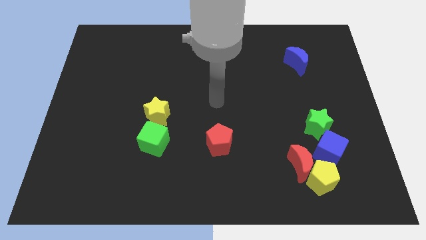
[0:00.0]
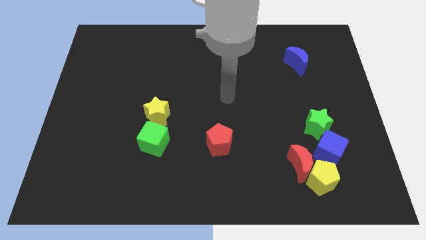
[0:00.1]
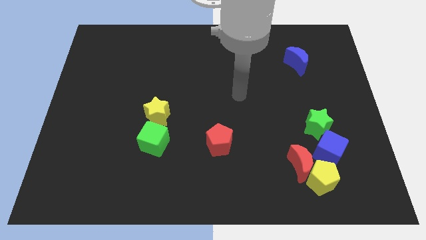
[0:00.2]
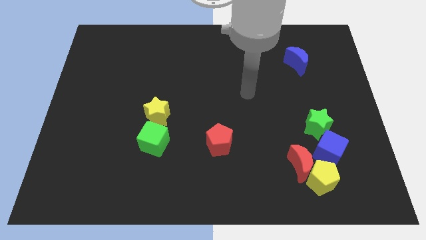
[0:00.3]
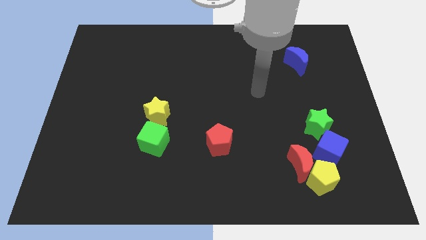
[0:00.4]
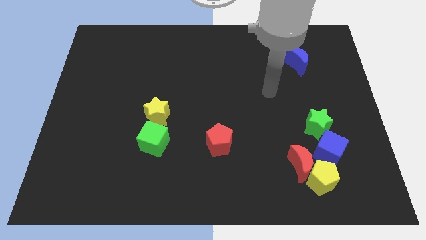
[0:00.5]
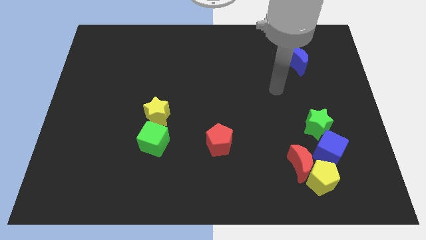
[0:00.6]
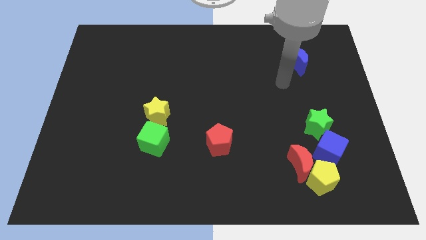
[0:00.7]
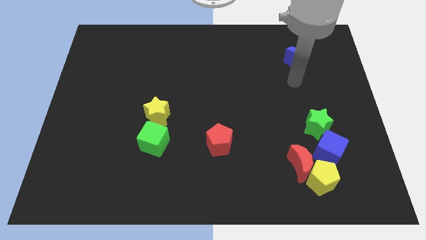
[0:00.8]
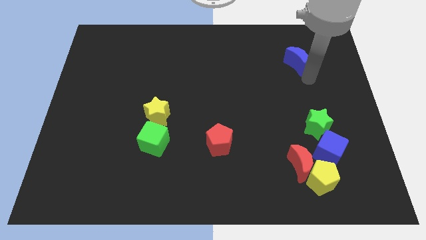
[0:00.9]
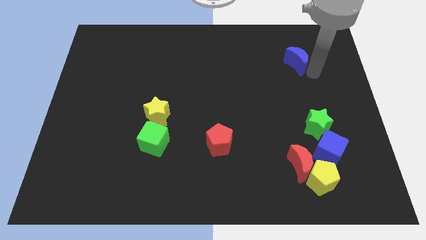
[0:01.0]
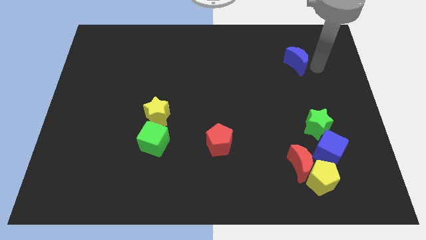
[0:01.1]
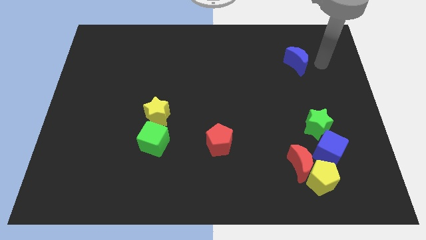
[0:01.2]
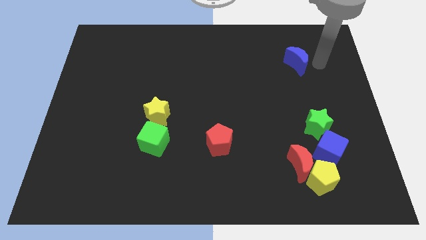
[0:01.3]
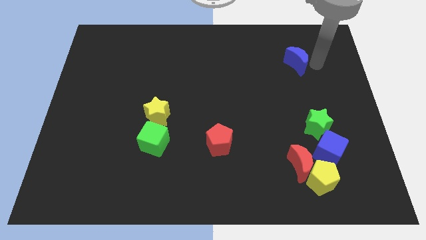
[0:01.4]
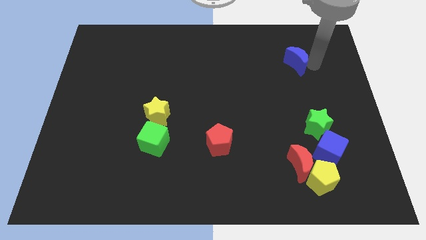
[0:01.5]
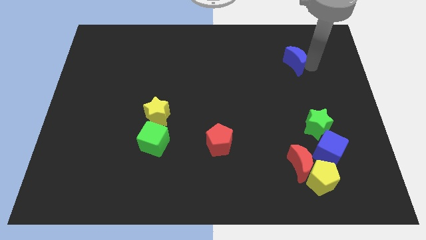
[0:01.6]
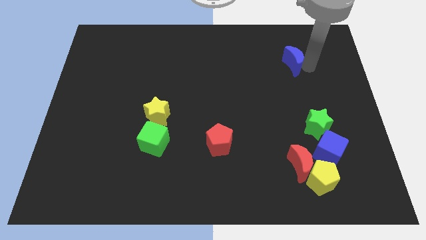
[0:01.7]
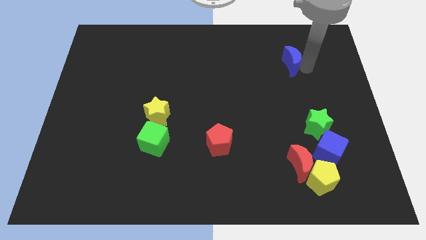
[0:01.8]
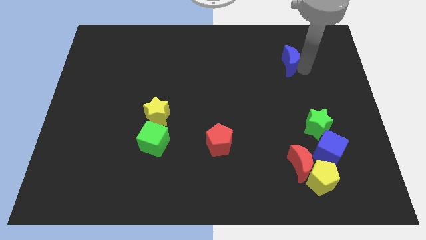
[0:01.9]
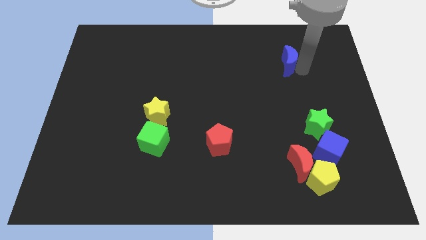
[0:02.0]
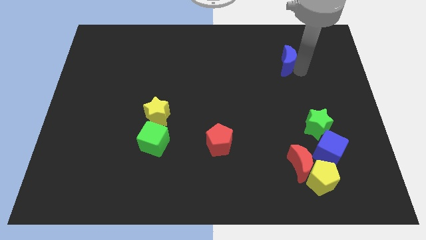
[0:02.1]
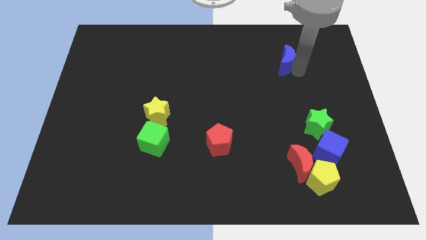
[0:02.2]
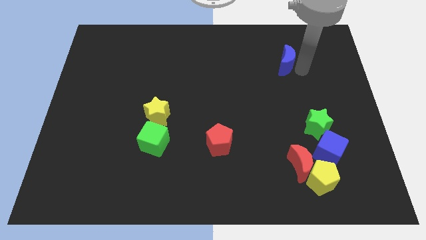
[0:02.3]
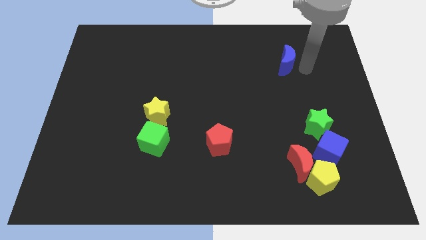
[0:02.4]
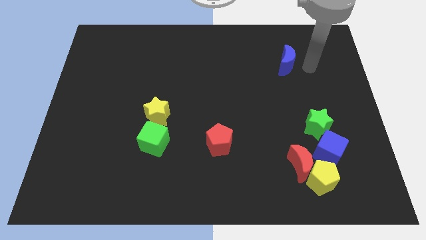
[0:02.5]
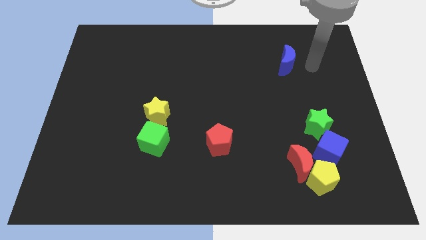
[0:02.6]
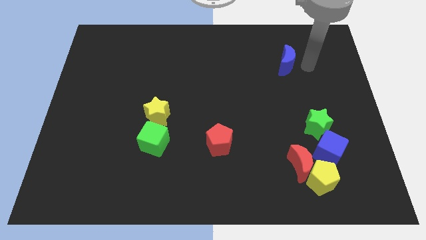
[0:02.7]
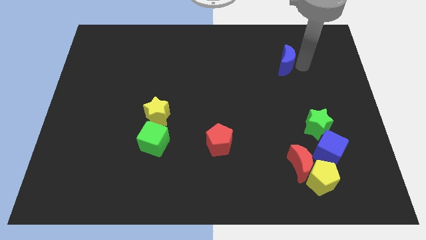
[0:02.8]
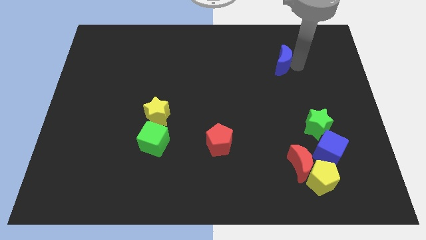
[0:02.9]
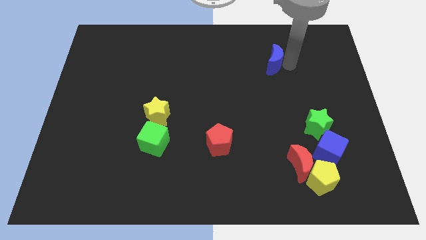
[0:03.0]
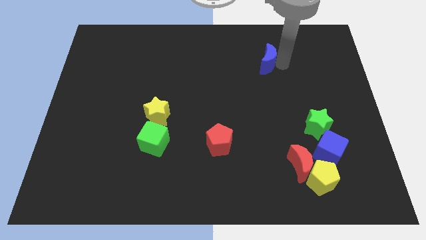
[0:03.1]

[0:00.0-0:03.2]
slightly move the blue moon to the left

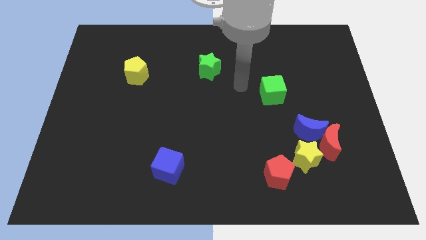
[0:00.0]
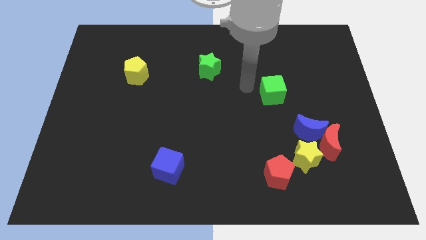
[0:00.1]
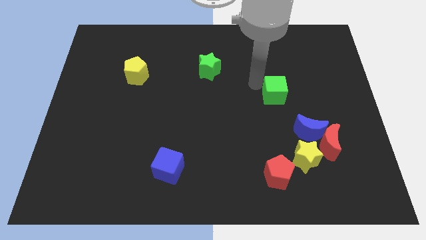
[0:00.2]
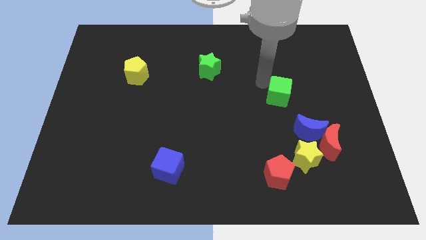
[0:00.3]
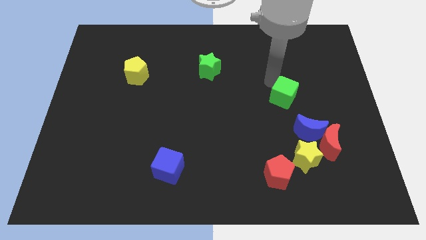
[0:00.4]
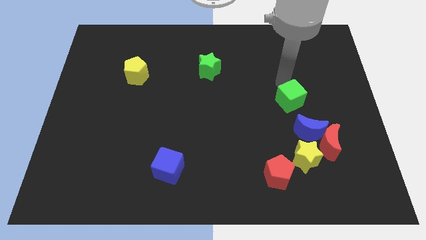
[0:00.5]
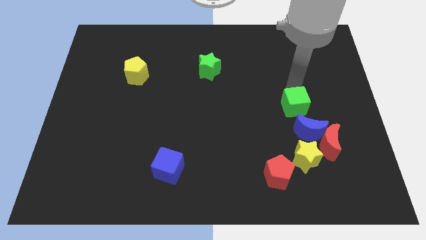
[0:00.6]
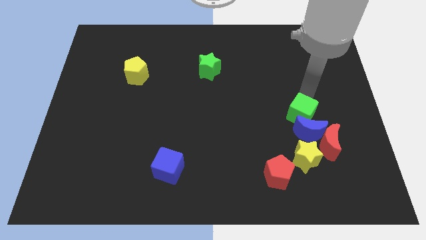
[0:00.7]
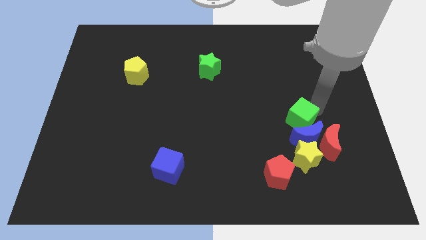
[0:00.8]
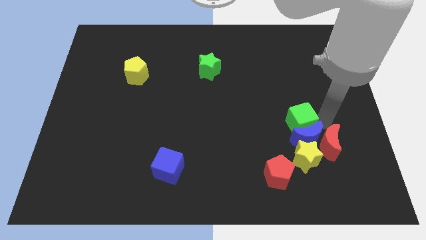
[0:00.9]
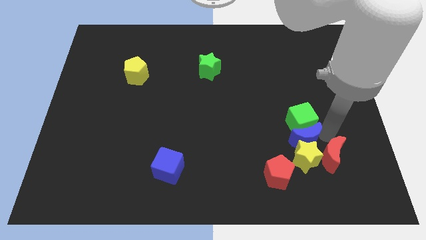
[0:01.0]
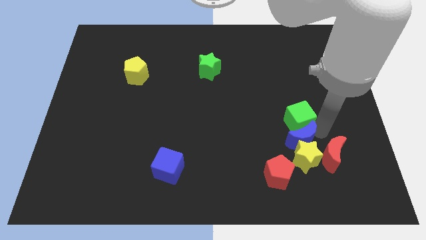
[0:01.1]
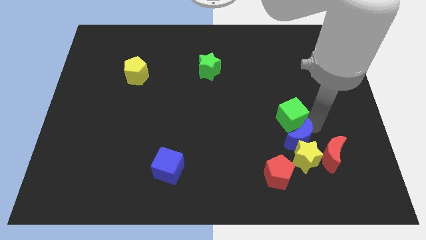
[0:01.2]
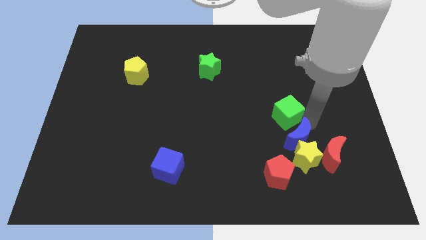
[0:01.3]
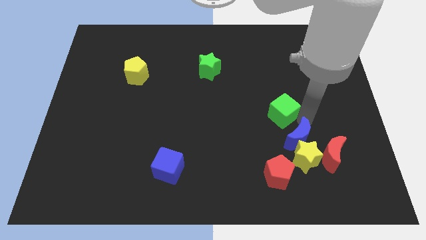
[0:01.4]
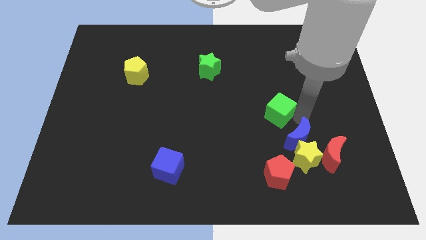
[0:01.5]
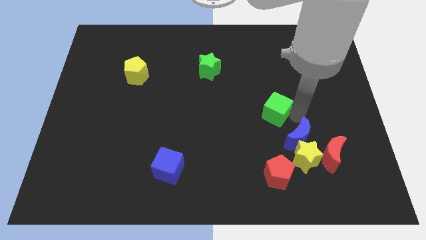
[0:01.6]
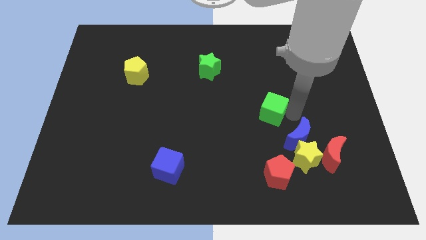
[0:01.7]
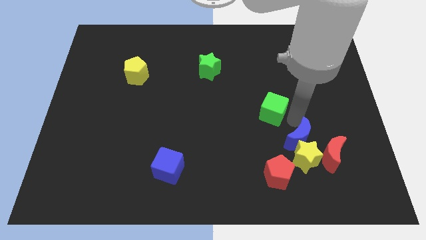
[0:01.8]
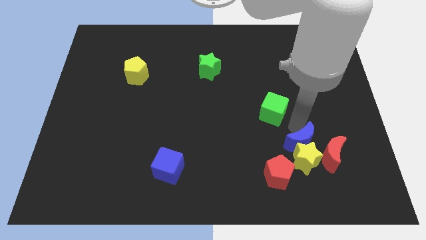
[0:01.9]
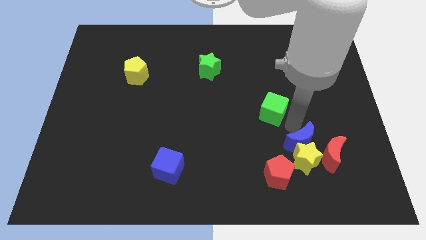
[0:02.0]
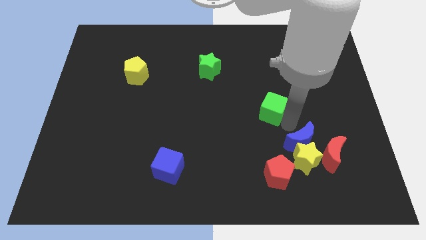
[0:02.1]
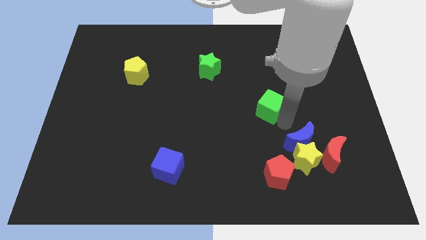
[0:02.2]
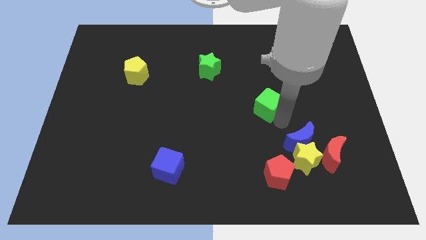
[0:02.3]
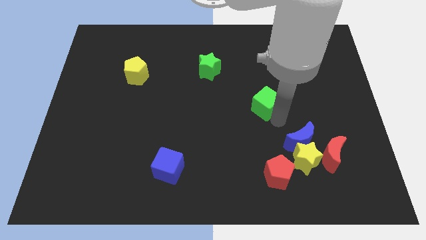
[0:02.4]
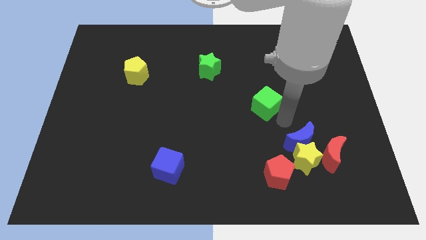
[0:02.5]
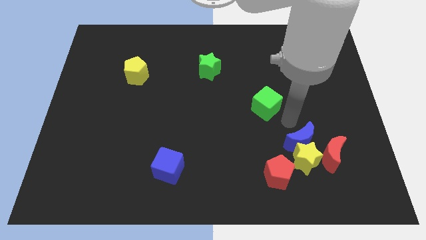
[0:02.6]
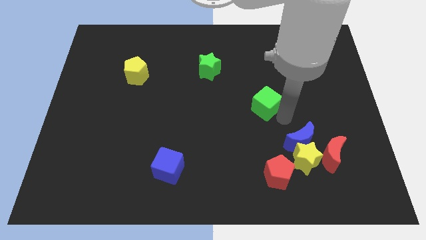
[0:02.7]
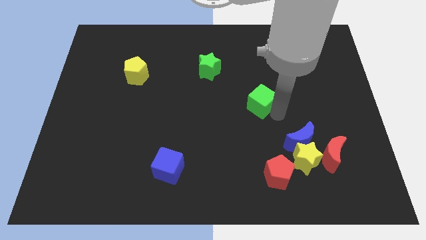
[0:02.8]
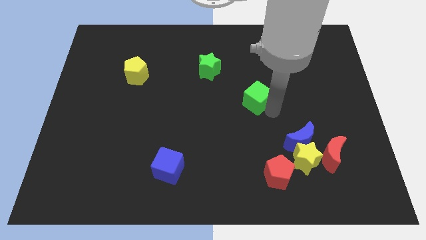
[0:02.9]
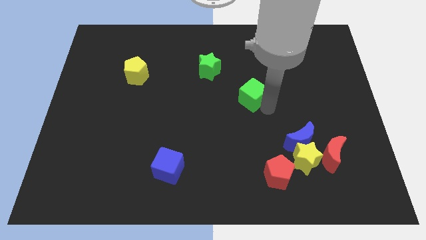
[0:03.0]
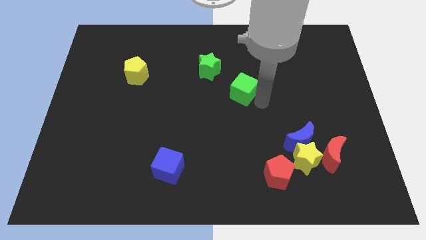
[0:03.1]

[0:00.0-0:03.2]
slide the green cube left a little

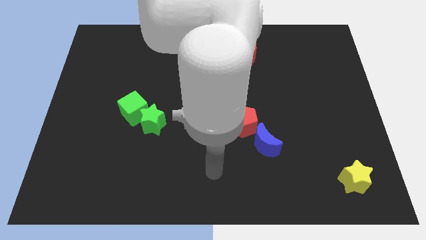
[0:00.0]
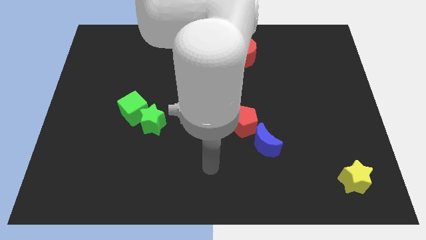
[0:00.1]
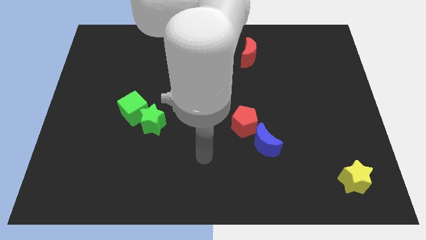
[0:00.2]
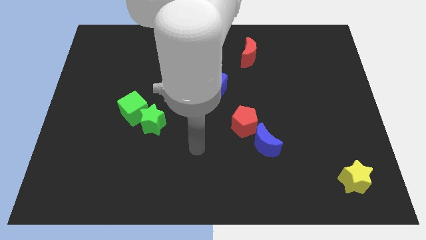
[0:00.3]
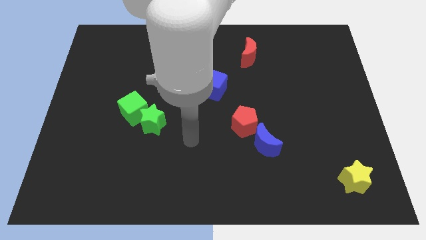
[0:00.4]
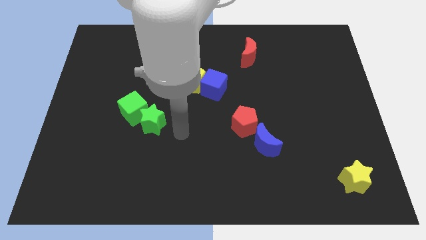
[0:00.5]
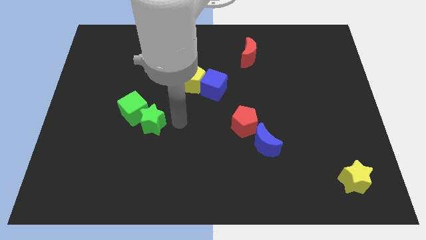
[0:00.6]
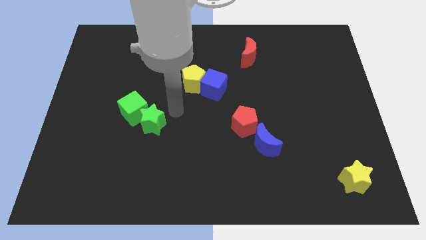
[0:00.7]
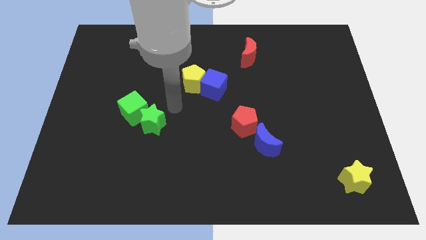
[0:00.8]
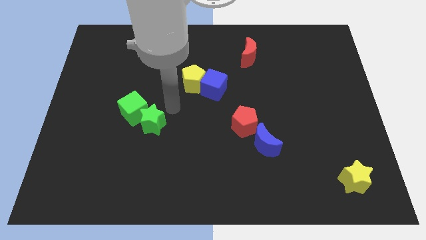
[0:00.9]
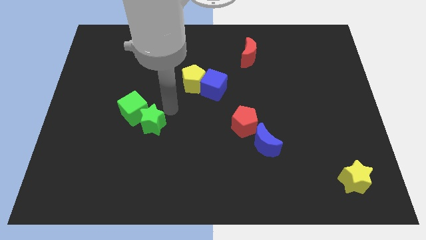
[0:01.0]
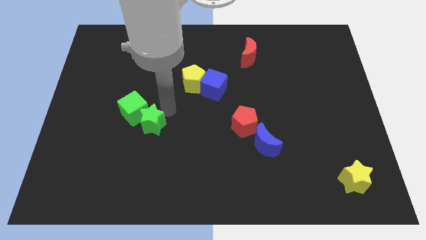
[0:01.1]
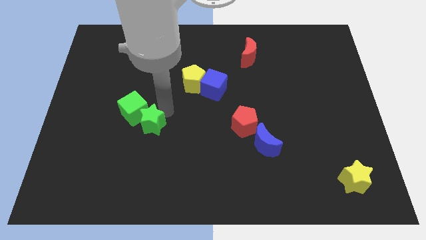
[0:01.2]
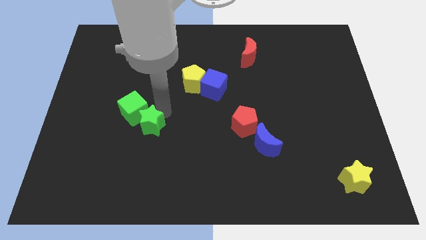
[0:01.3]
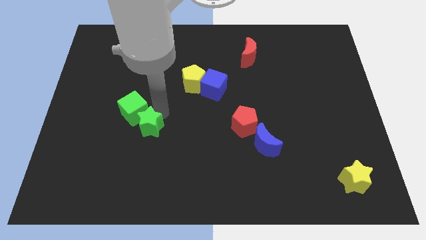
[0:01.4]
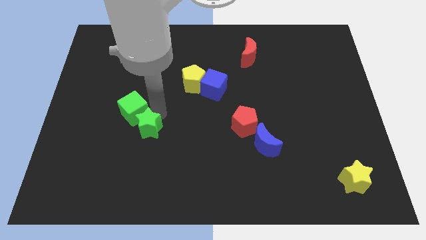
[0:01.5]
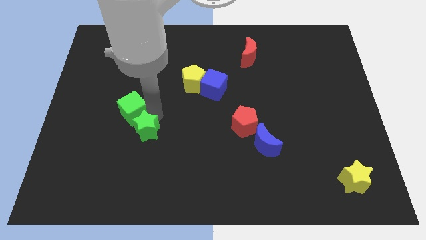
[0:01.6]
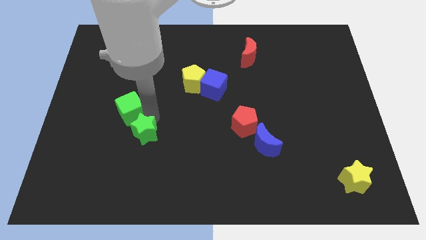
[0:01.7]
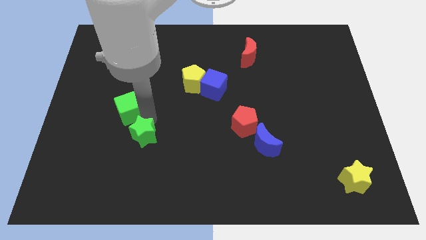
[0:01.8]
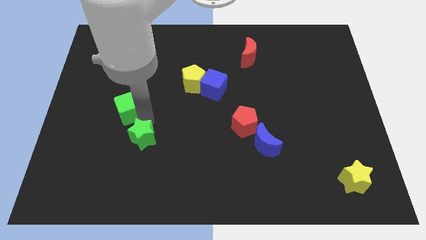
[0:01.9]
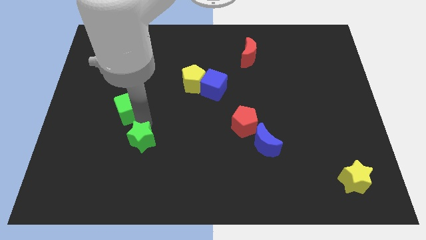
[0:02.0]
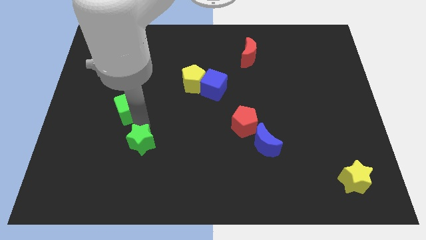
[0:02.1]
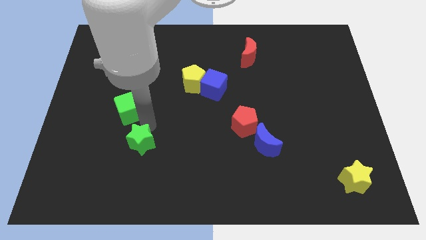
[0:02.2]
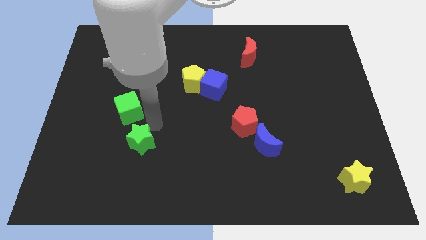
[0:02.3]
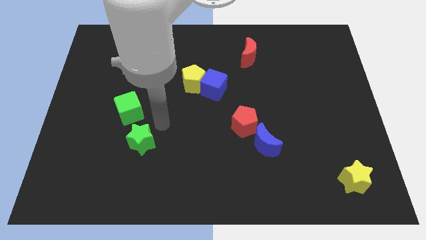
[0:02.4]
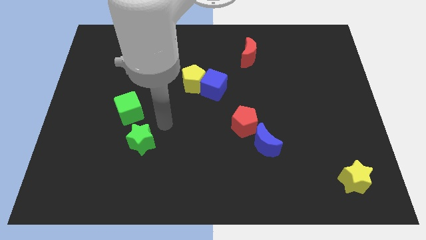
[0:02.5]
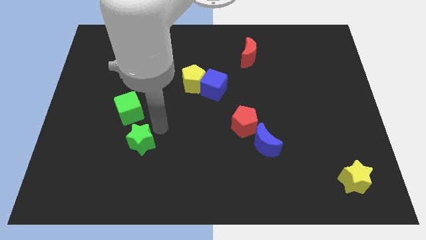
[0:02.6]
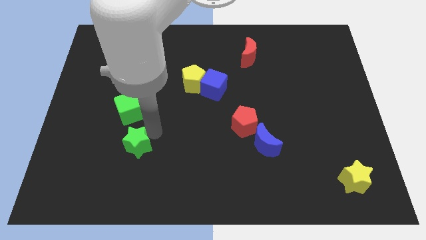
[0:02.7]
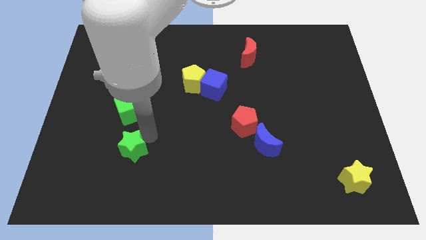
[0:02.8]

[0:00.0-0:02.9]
slide the green star a bit downwards and left
